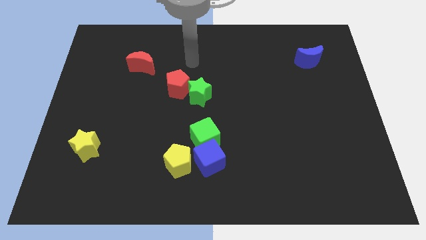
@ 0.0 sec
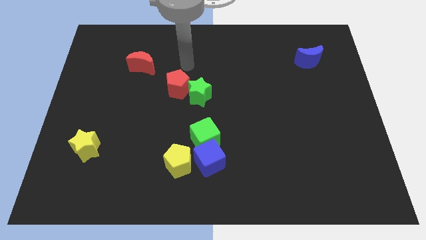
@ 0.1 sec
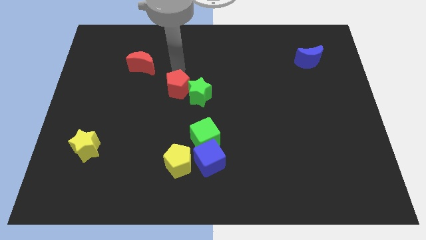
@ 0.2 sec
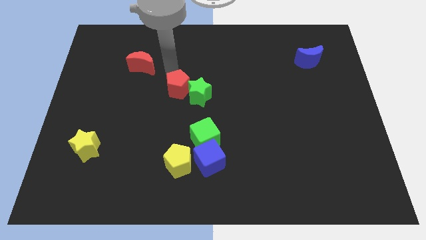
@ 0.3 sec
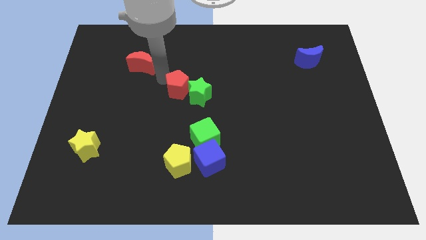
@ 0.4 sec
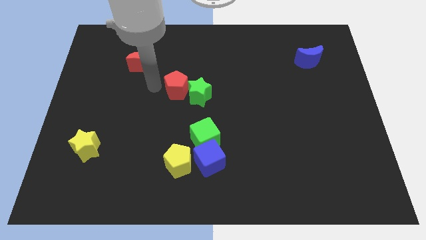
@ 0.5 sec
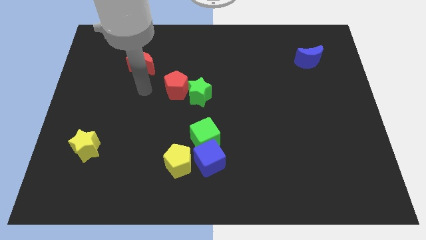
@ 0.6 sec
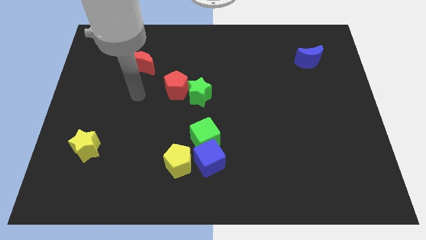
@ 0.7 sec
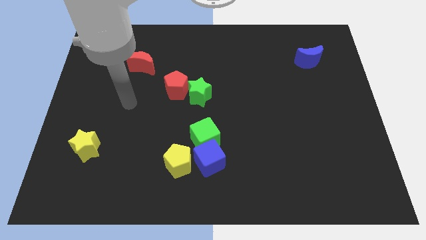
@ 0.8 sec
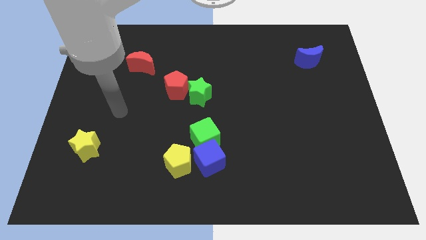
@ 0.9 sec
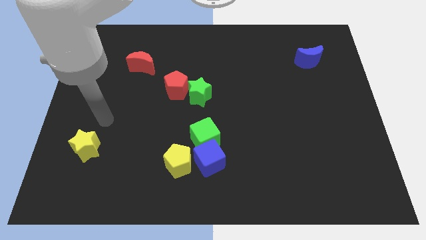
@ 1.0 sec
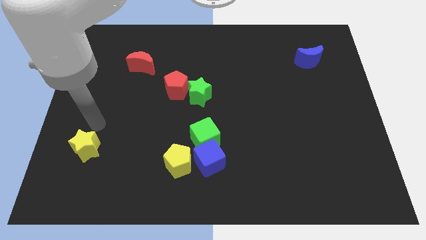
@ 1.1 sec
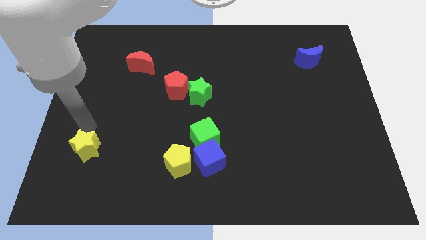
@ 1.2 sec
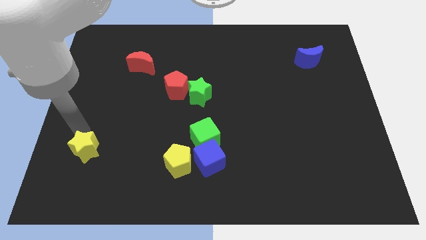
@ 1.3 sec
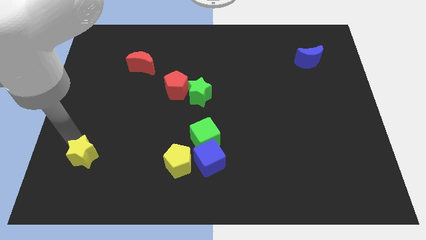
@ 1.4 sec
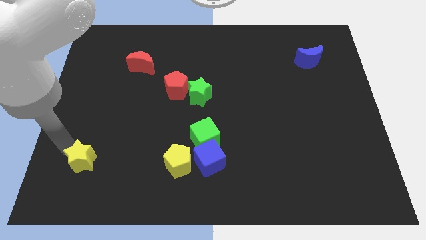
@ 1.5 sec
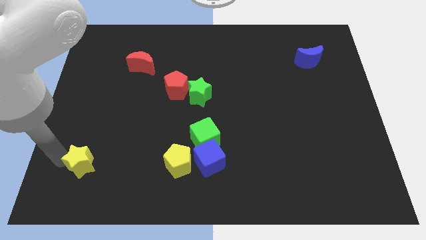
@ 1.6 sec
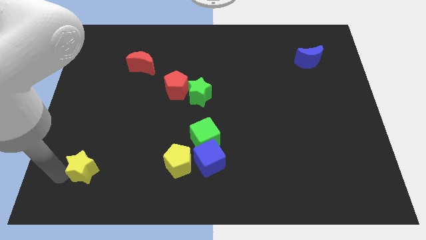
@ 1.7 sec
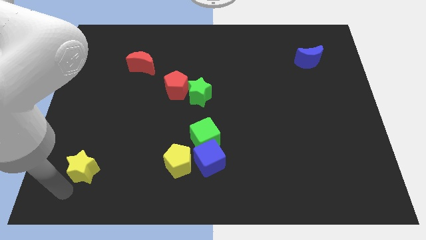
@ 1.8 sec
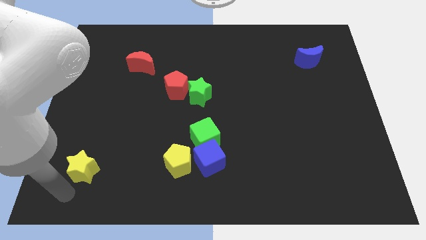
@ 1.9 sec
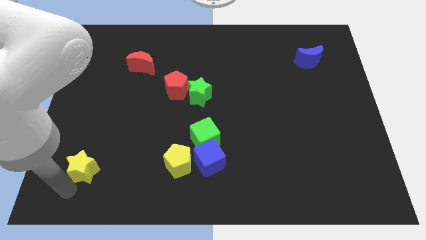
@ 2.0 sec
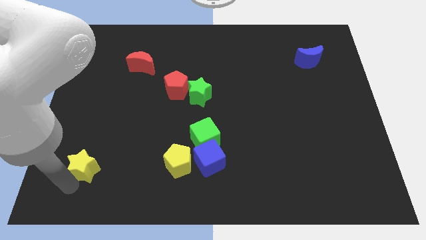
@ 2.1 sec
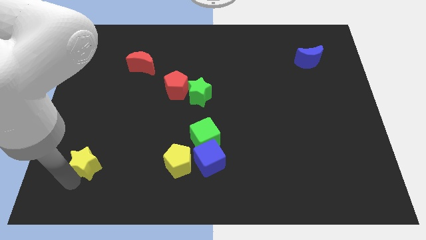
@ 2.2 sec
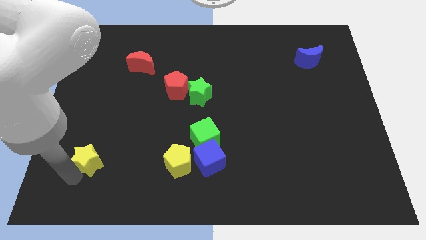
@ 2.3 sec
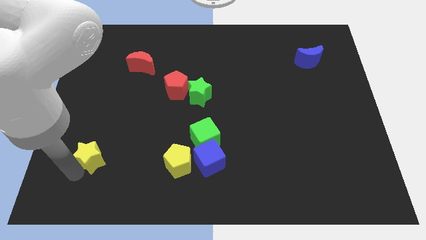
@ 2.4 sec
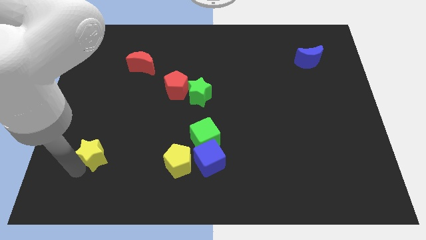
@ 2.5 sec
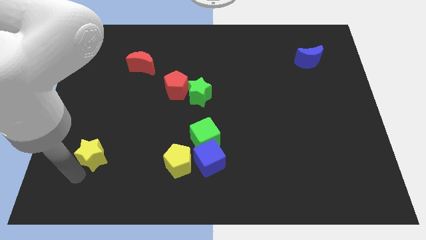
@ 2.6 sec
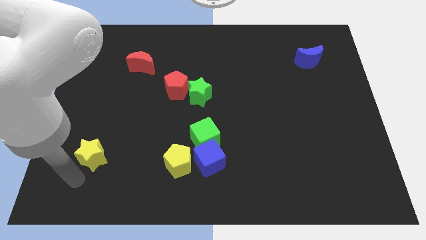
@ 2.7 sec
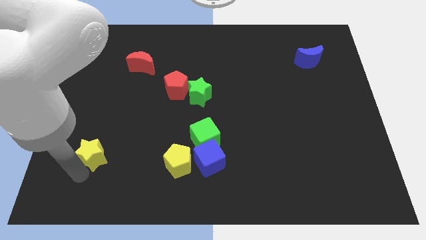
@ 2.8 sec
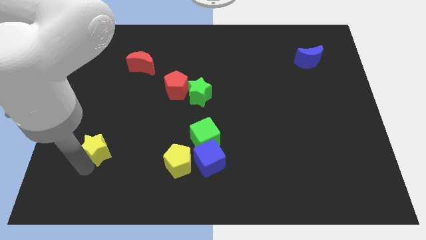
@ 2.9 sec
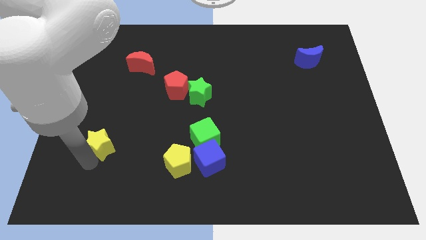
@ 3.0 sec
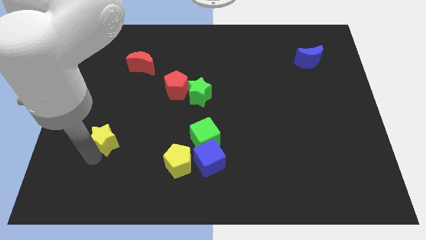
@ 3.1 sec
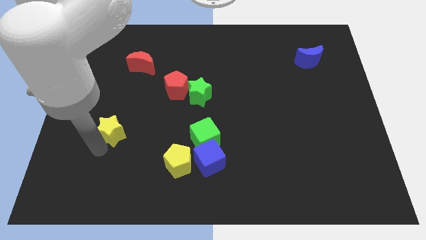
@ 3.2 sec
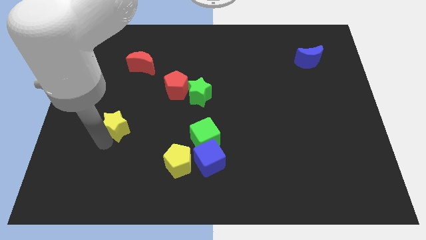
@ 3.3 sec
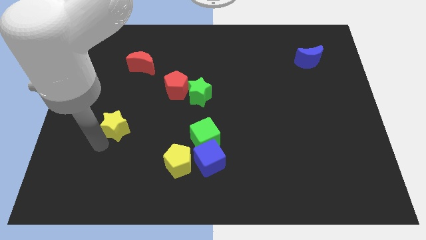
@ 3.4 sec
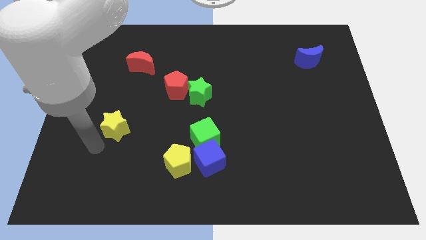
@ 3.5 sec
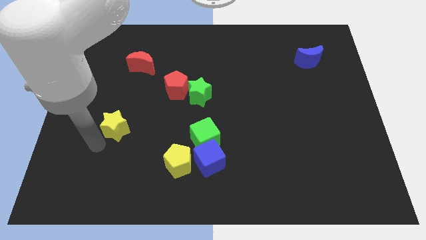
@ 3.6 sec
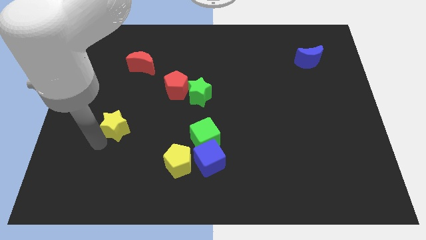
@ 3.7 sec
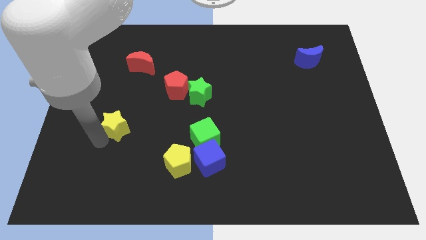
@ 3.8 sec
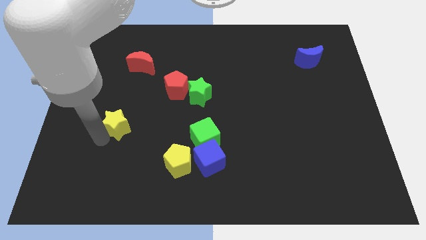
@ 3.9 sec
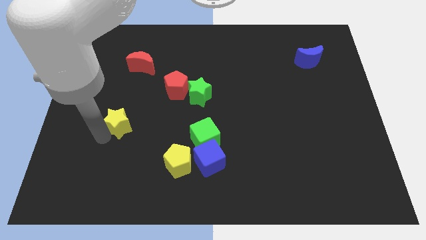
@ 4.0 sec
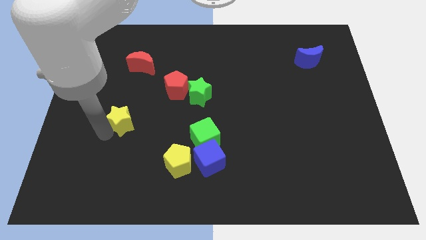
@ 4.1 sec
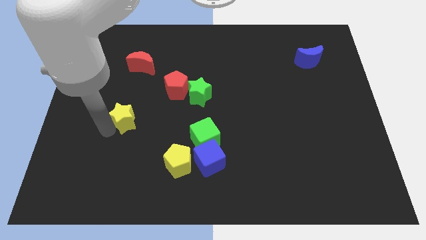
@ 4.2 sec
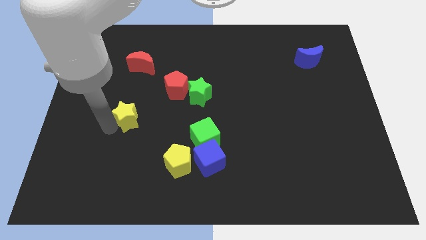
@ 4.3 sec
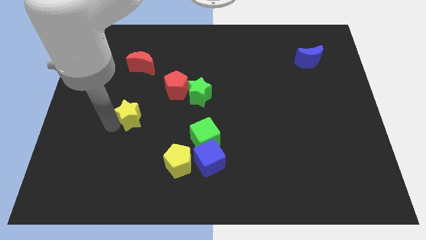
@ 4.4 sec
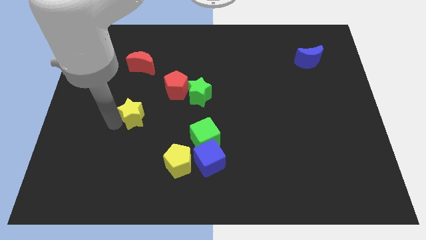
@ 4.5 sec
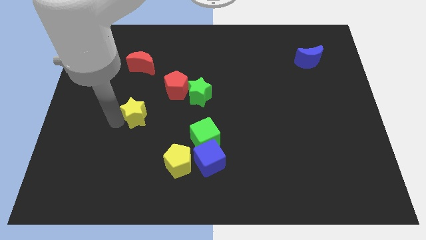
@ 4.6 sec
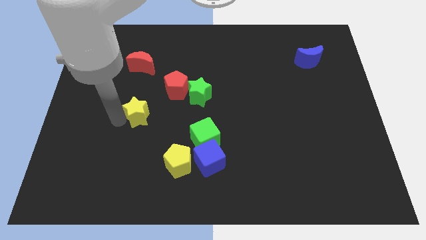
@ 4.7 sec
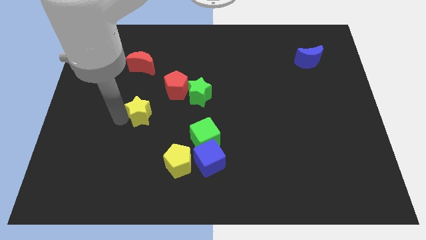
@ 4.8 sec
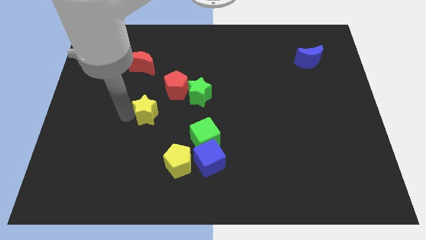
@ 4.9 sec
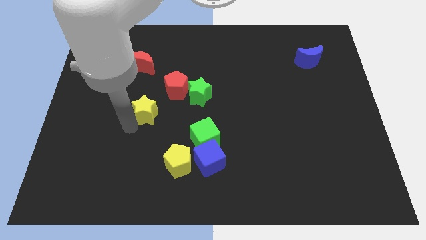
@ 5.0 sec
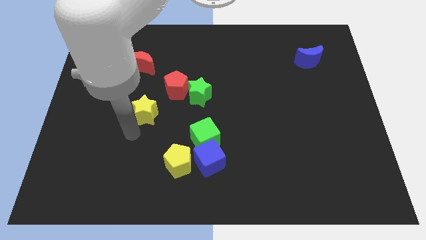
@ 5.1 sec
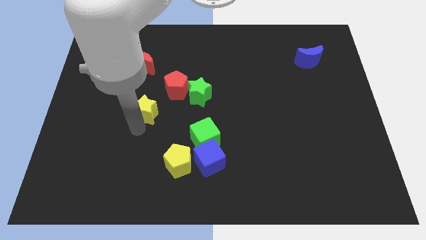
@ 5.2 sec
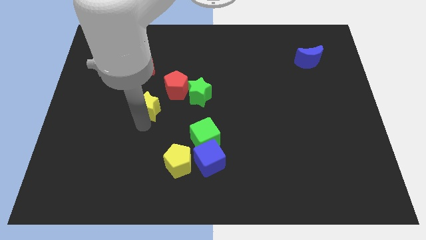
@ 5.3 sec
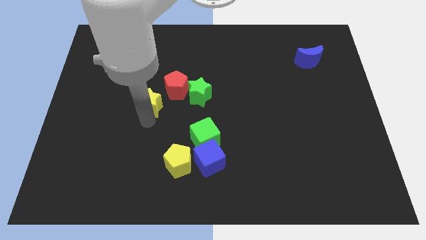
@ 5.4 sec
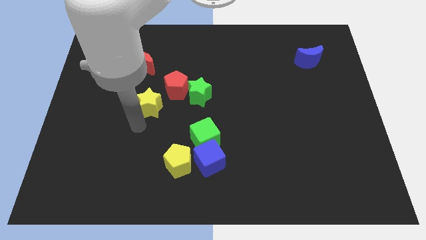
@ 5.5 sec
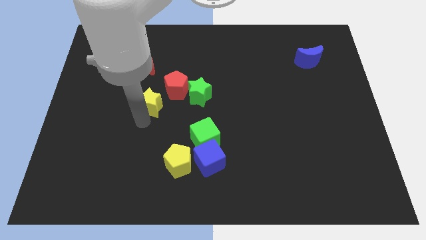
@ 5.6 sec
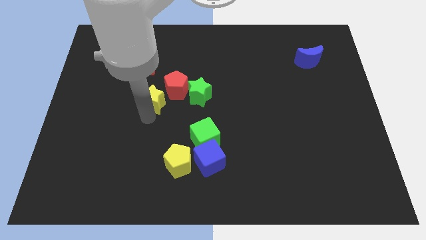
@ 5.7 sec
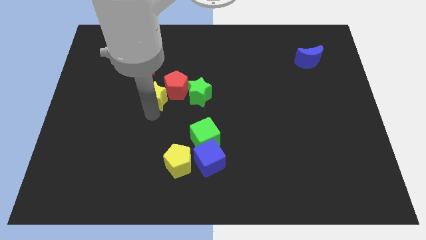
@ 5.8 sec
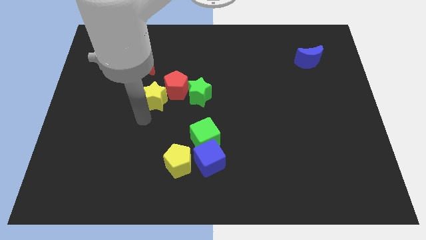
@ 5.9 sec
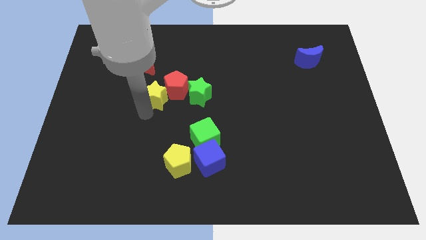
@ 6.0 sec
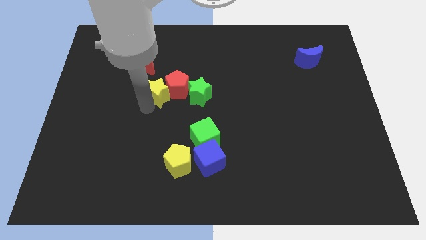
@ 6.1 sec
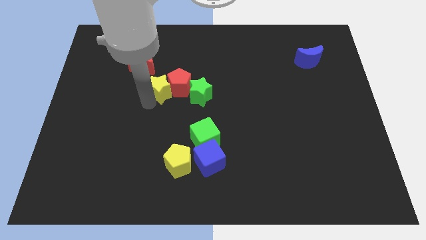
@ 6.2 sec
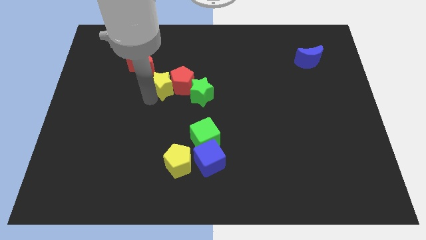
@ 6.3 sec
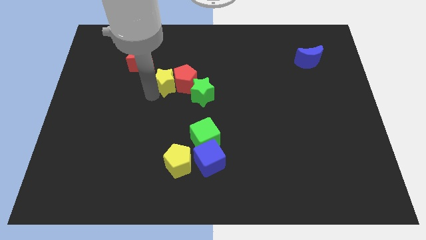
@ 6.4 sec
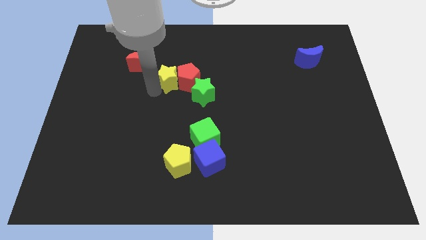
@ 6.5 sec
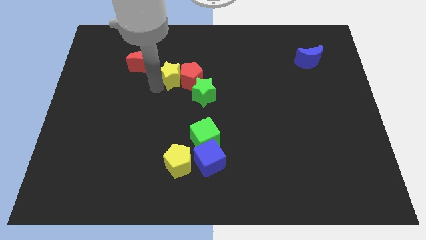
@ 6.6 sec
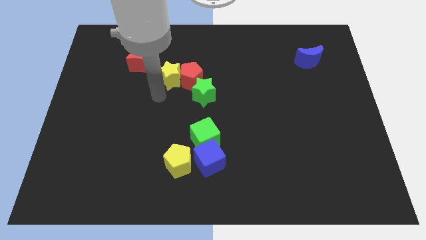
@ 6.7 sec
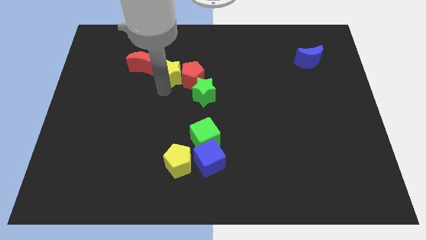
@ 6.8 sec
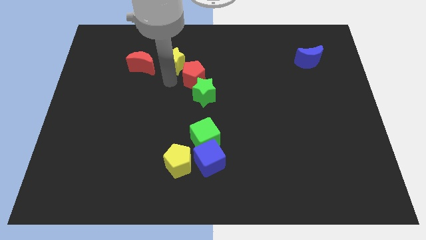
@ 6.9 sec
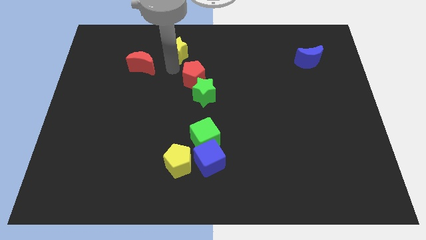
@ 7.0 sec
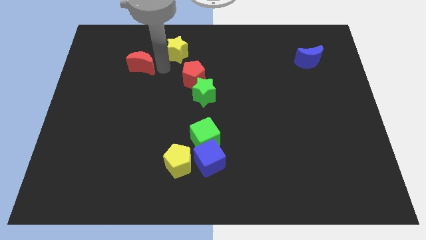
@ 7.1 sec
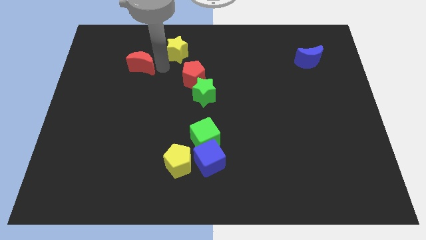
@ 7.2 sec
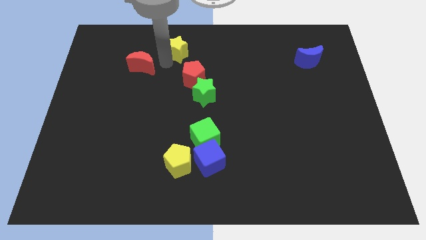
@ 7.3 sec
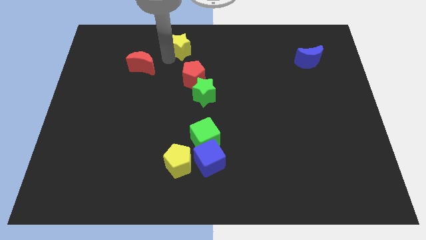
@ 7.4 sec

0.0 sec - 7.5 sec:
put the yellow star to the towards your base
